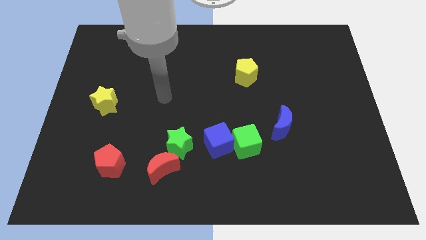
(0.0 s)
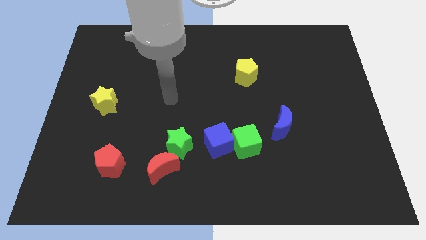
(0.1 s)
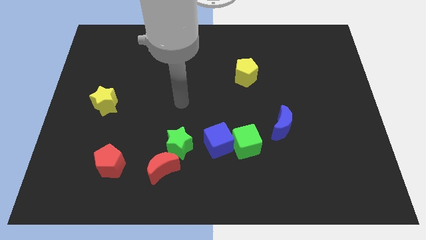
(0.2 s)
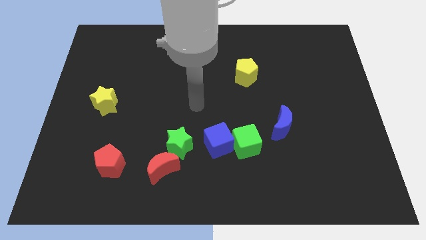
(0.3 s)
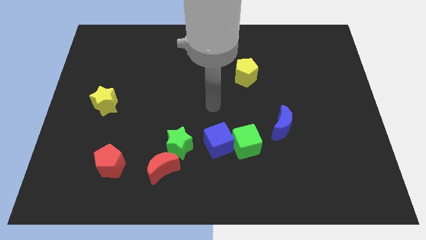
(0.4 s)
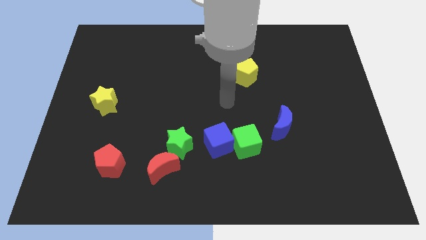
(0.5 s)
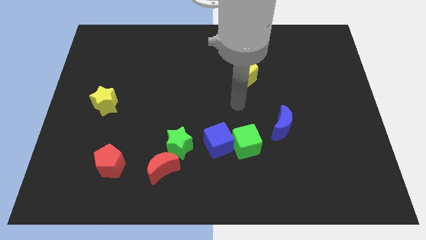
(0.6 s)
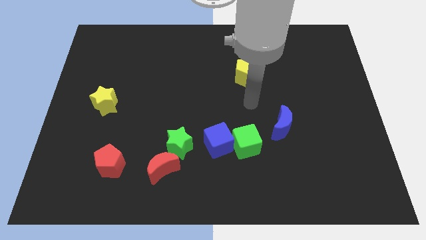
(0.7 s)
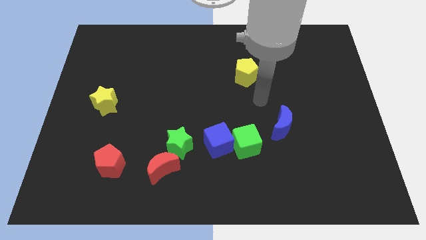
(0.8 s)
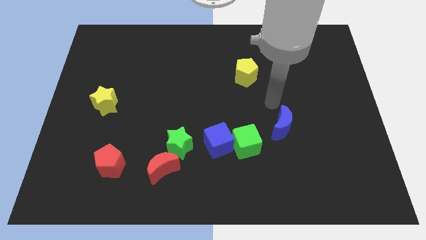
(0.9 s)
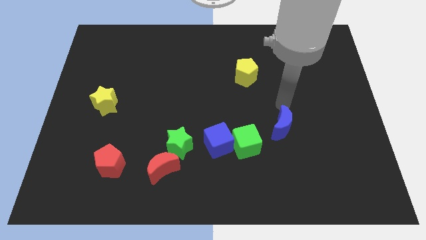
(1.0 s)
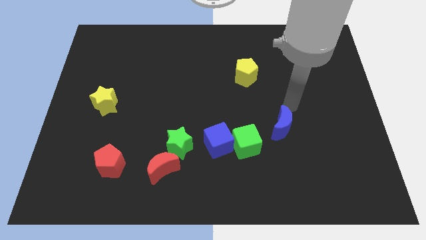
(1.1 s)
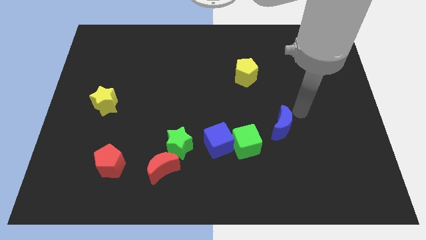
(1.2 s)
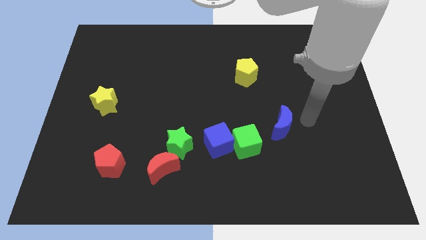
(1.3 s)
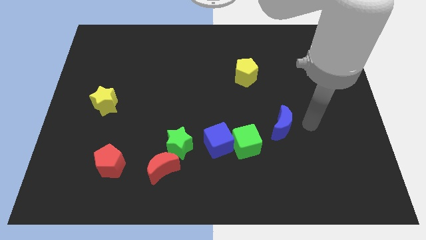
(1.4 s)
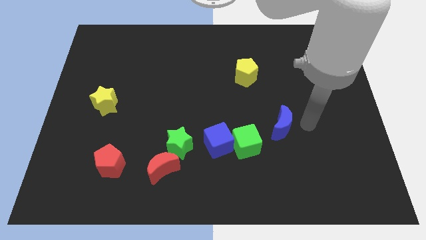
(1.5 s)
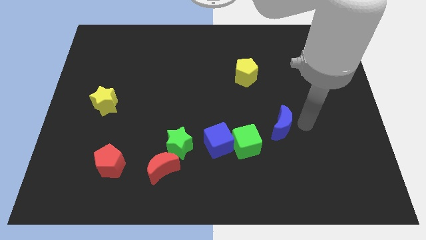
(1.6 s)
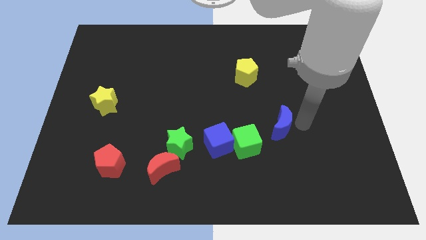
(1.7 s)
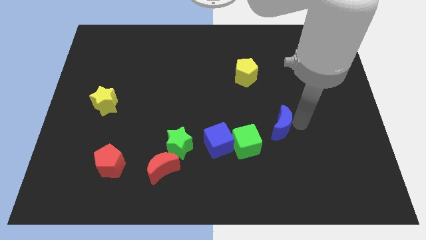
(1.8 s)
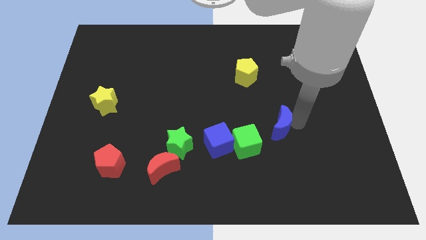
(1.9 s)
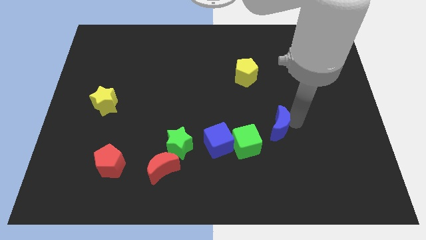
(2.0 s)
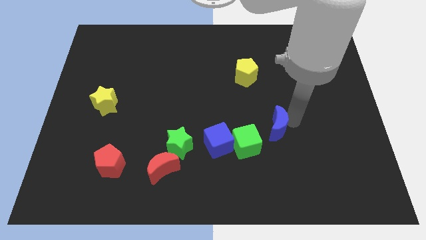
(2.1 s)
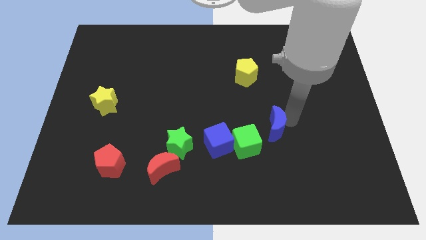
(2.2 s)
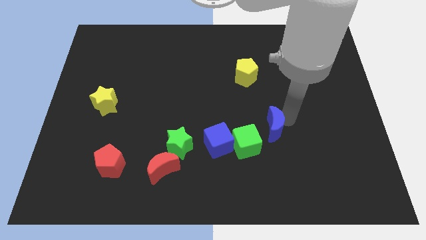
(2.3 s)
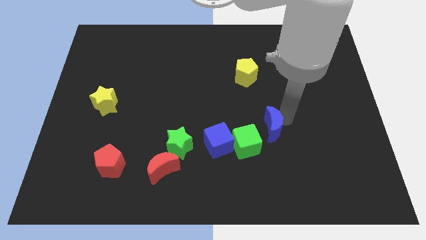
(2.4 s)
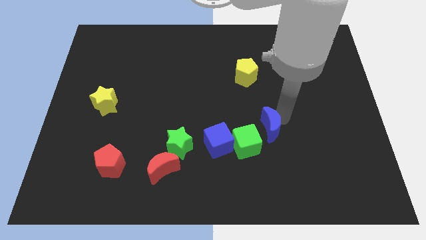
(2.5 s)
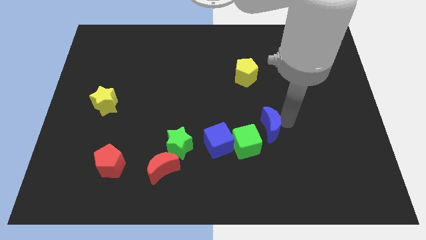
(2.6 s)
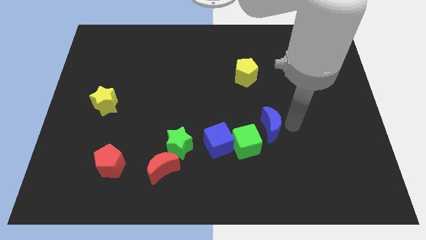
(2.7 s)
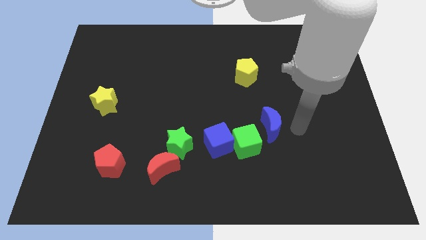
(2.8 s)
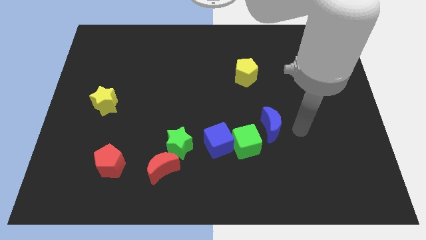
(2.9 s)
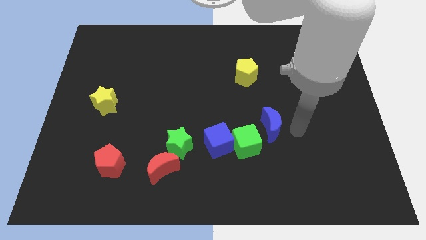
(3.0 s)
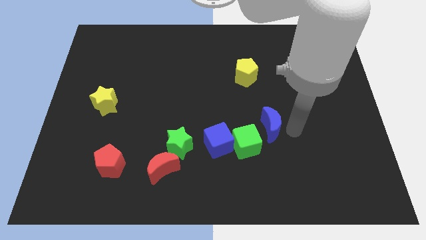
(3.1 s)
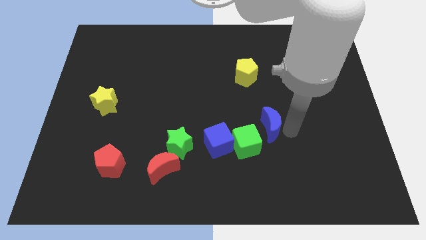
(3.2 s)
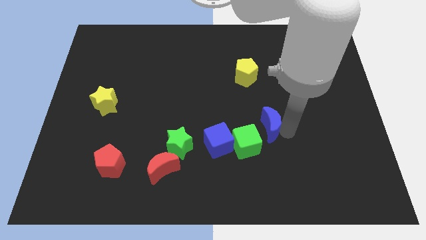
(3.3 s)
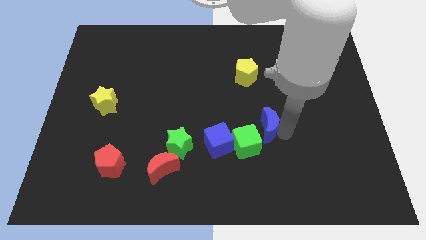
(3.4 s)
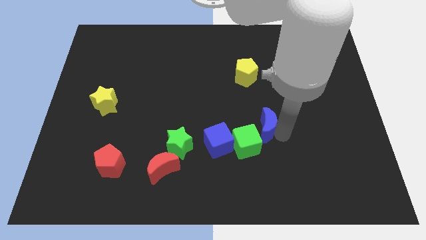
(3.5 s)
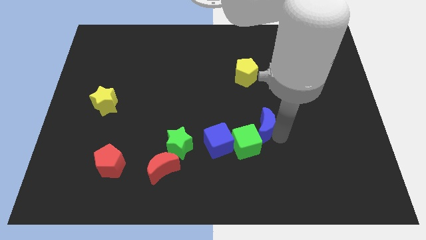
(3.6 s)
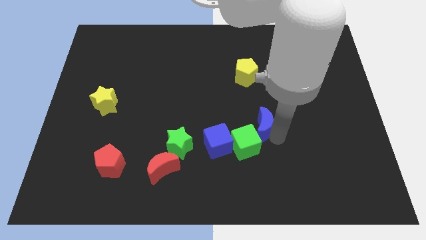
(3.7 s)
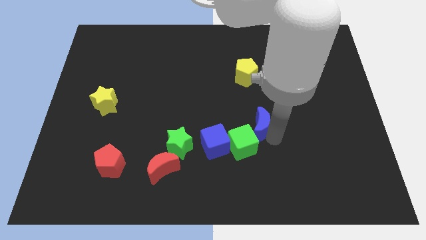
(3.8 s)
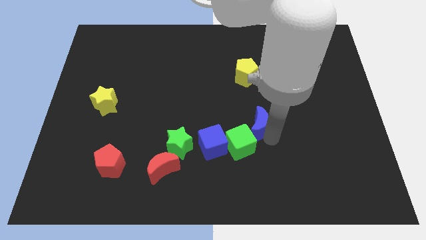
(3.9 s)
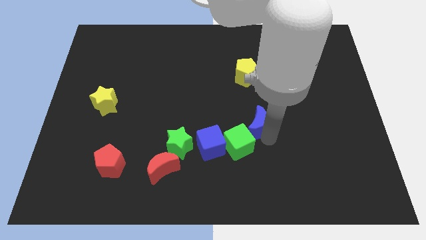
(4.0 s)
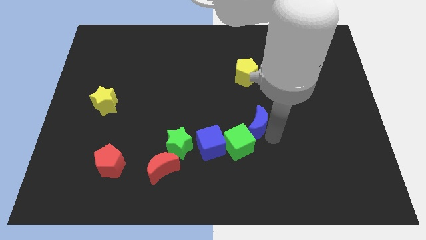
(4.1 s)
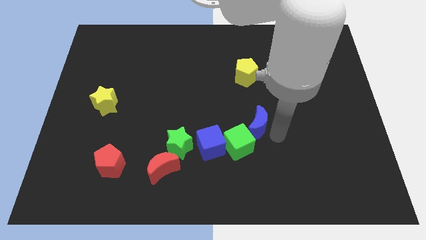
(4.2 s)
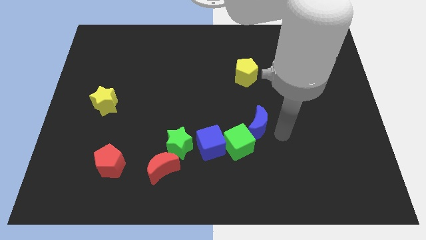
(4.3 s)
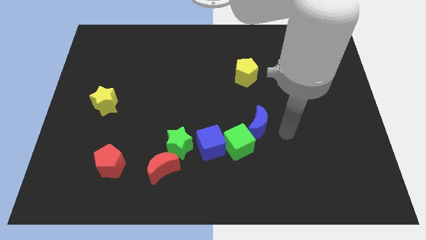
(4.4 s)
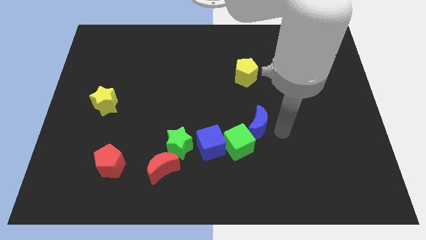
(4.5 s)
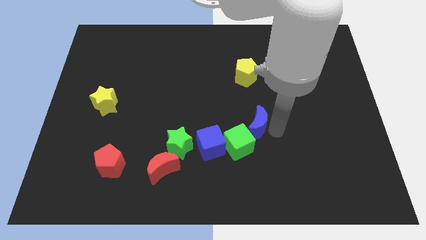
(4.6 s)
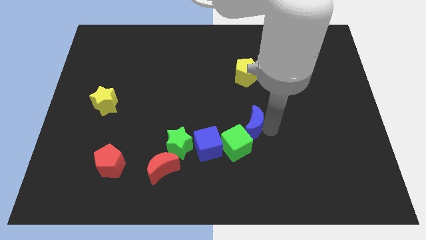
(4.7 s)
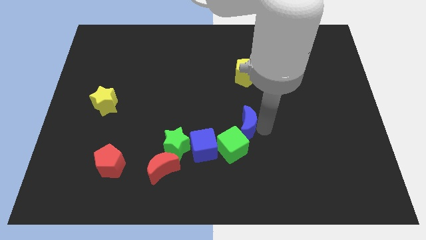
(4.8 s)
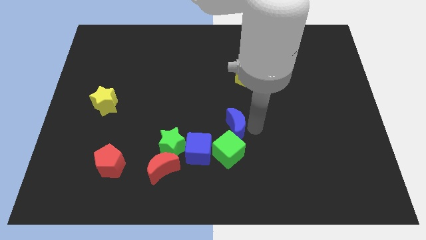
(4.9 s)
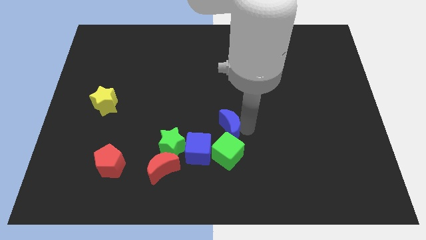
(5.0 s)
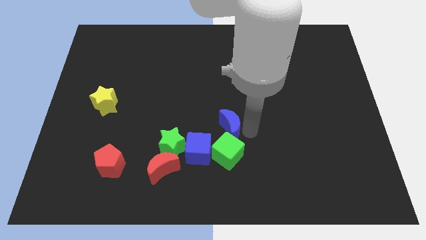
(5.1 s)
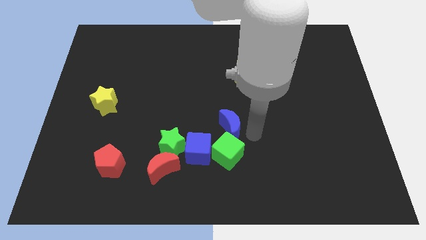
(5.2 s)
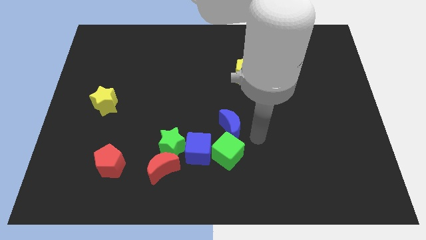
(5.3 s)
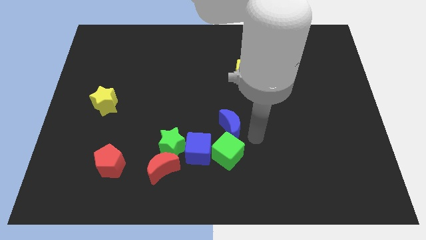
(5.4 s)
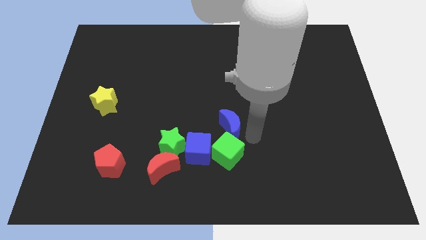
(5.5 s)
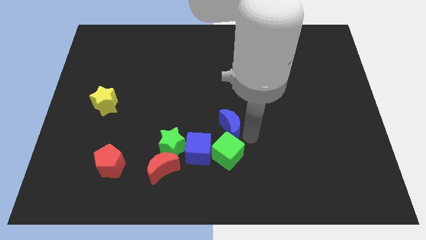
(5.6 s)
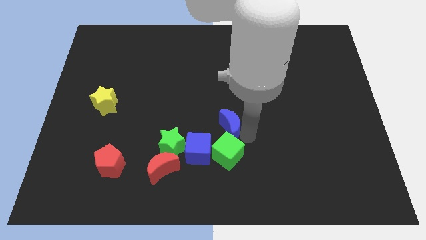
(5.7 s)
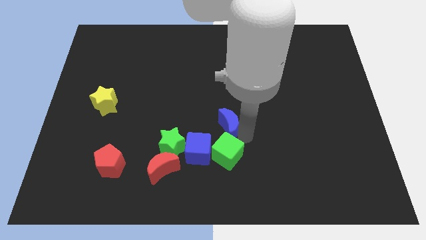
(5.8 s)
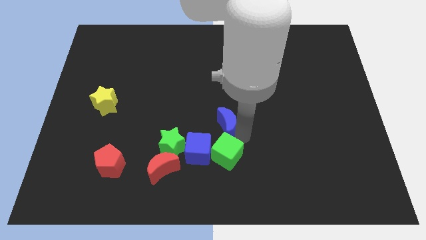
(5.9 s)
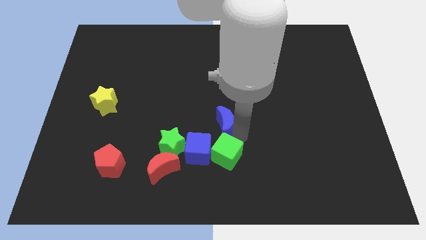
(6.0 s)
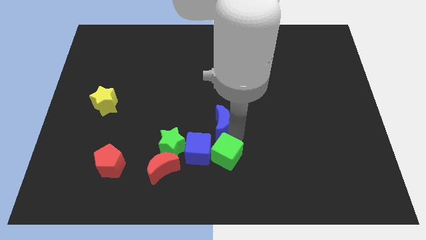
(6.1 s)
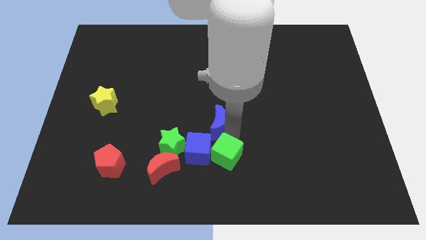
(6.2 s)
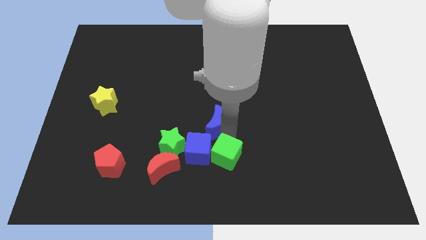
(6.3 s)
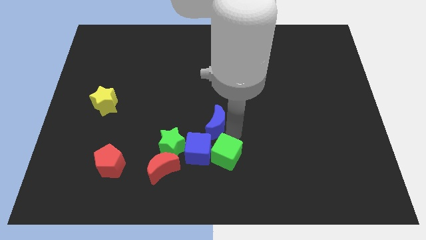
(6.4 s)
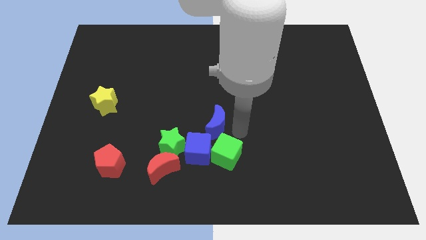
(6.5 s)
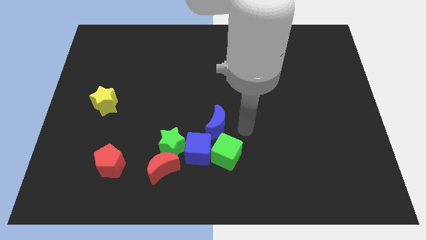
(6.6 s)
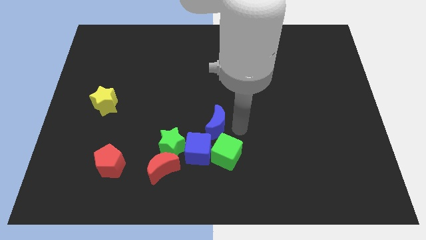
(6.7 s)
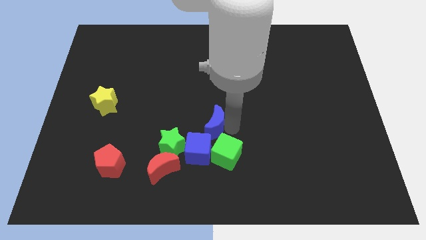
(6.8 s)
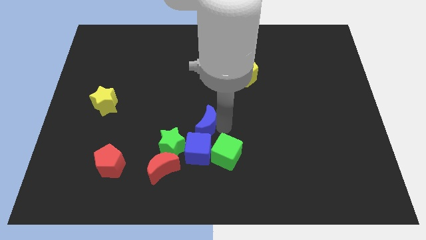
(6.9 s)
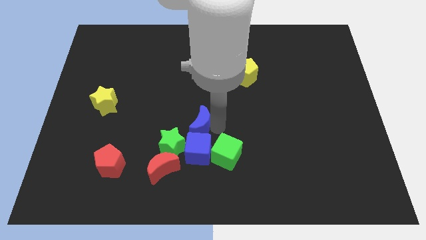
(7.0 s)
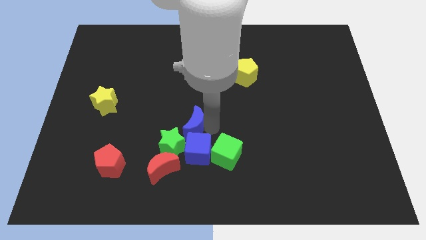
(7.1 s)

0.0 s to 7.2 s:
slide the blue moon to the left

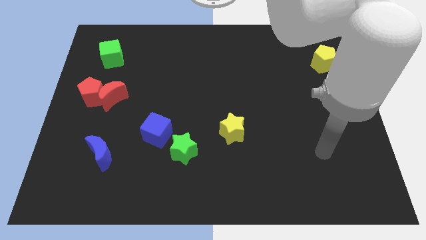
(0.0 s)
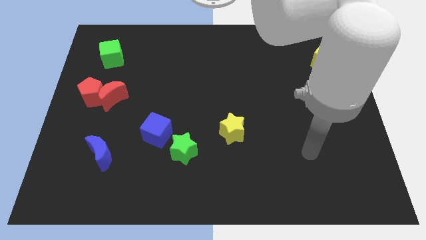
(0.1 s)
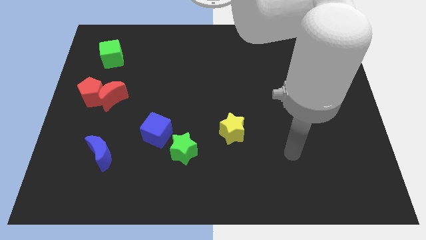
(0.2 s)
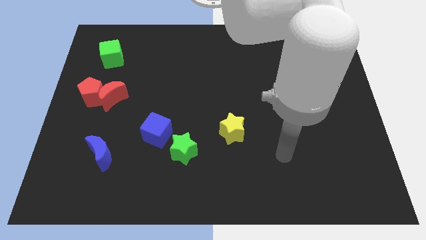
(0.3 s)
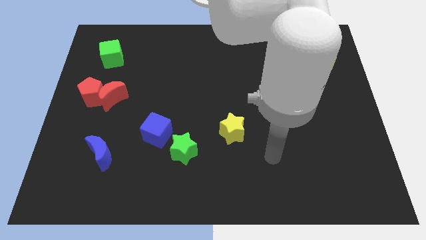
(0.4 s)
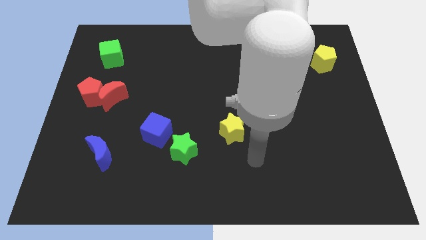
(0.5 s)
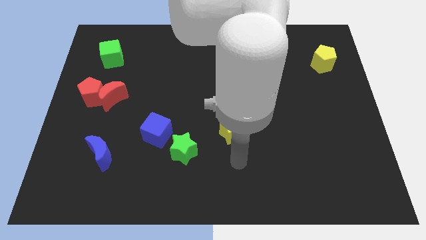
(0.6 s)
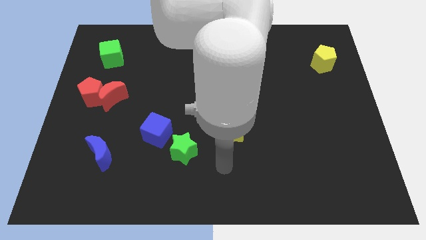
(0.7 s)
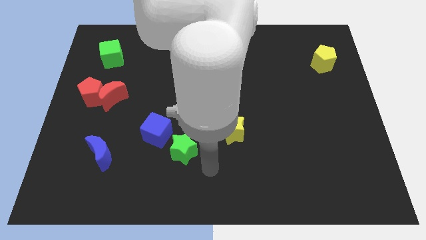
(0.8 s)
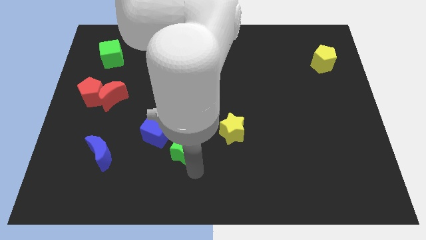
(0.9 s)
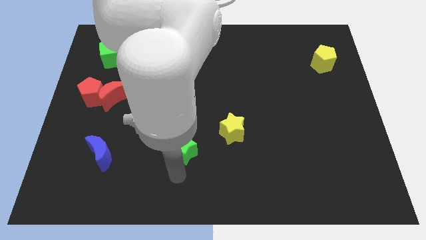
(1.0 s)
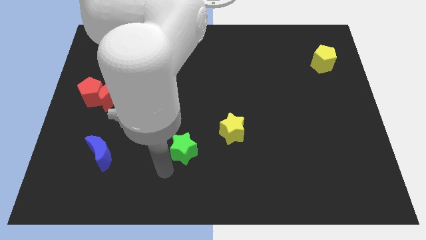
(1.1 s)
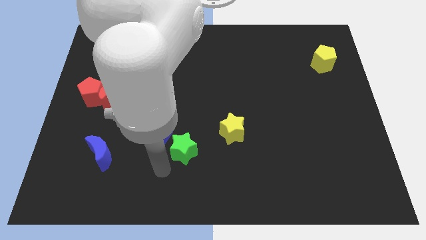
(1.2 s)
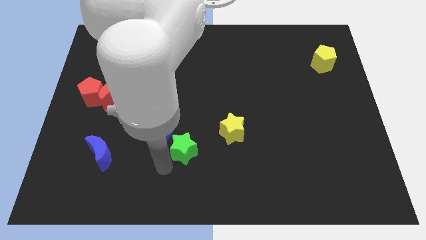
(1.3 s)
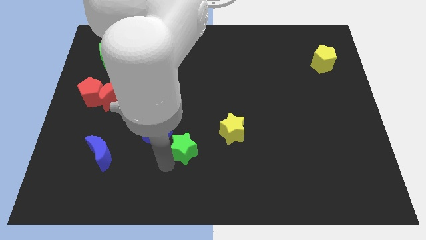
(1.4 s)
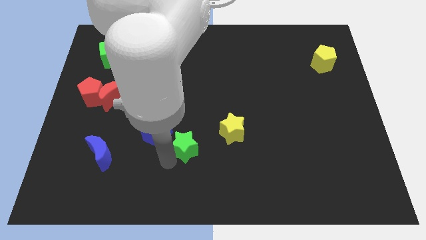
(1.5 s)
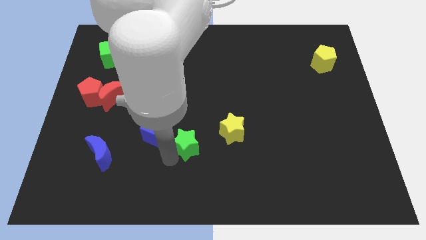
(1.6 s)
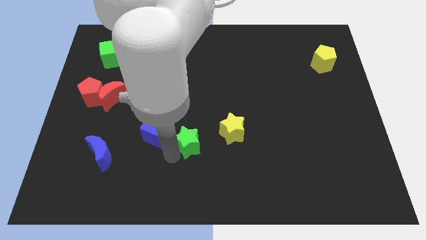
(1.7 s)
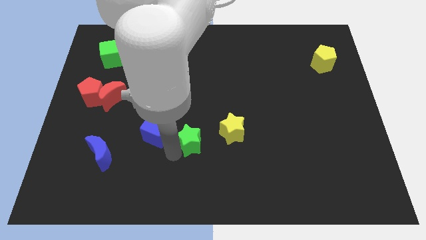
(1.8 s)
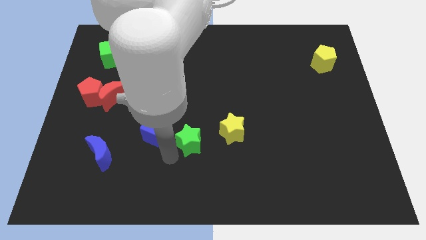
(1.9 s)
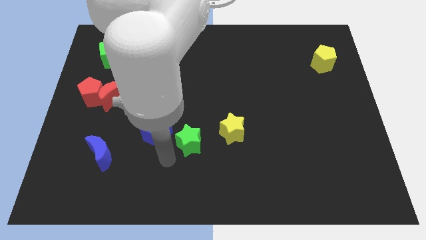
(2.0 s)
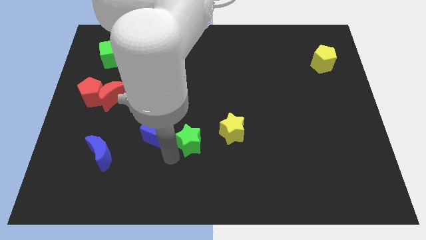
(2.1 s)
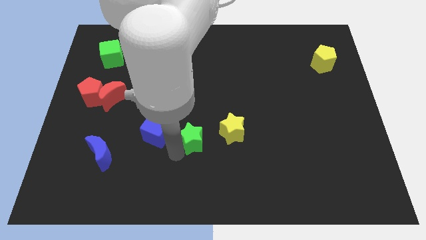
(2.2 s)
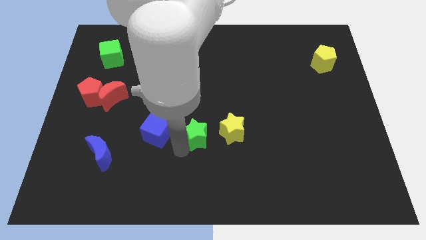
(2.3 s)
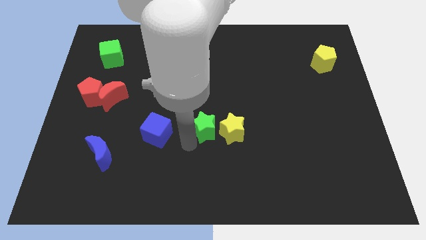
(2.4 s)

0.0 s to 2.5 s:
slightly push the green star diagonally up and right
